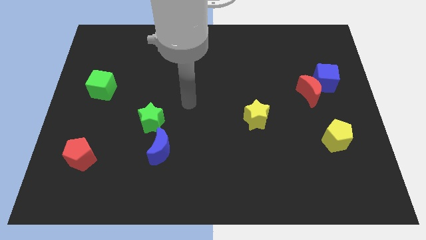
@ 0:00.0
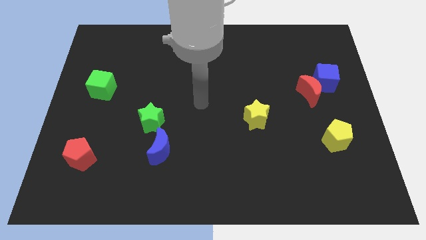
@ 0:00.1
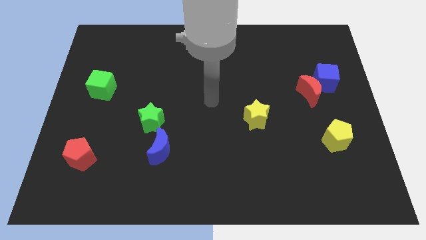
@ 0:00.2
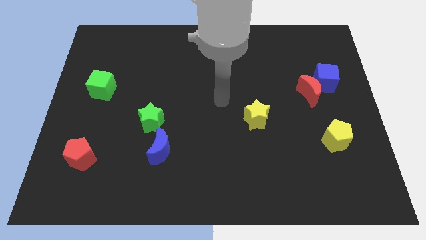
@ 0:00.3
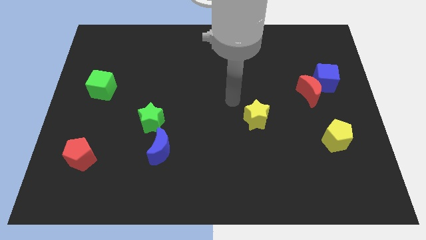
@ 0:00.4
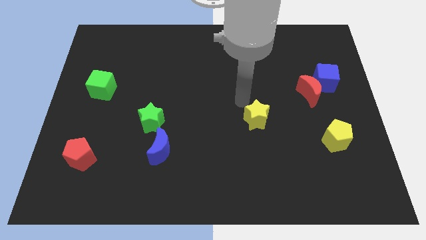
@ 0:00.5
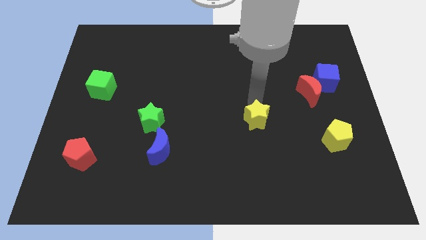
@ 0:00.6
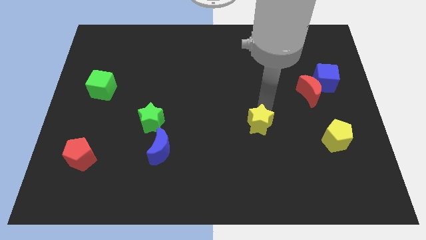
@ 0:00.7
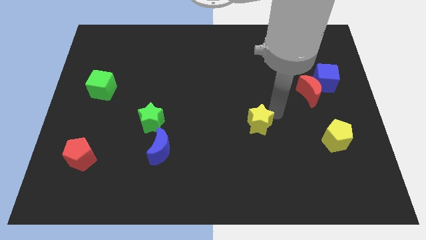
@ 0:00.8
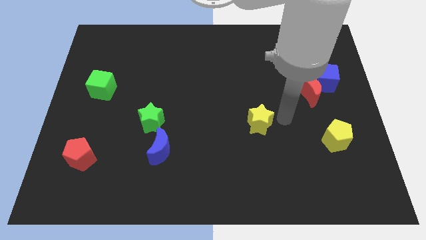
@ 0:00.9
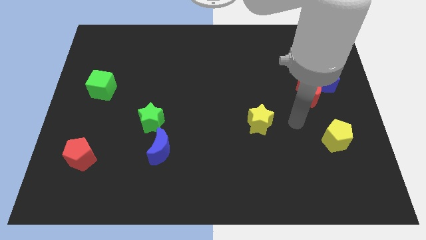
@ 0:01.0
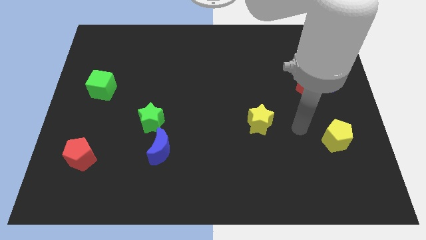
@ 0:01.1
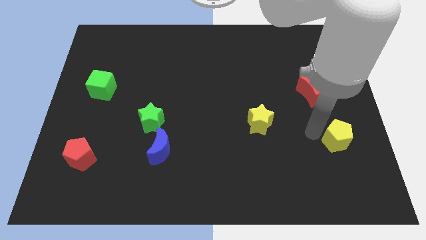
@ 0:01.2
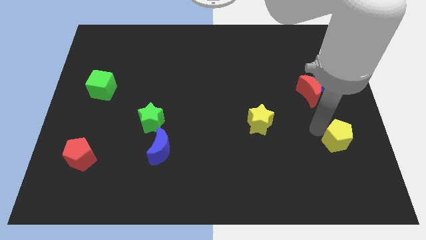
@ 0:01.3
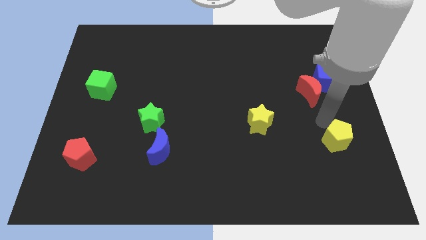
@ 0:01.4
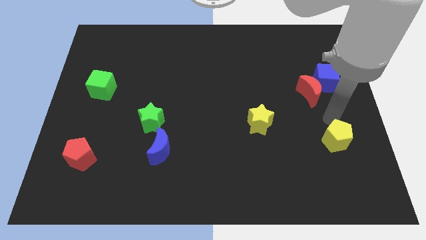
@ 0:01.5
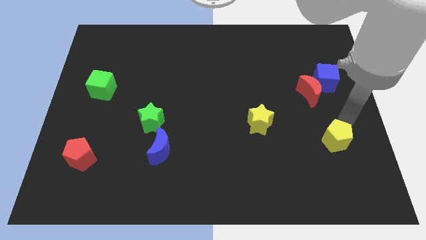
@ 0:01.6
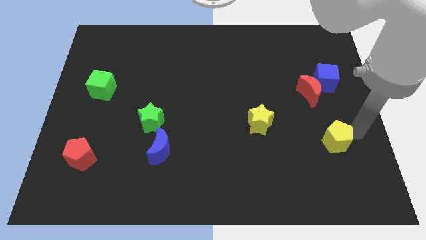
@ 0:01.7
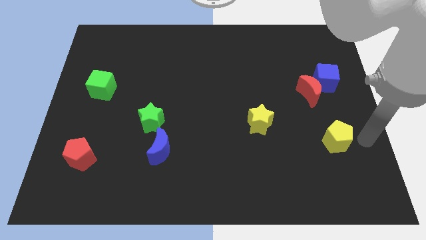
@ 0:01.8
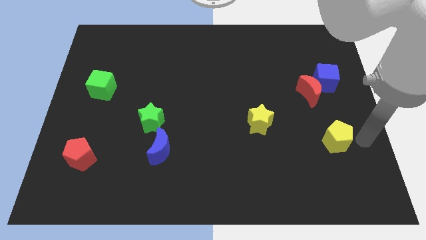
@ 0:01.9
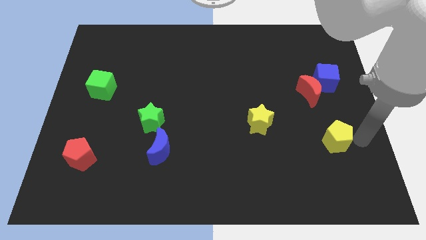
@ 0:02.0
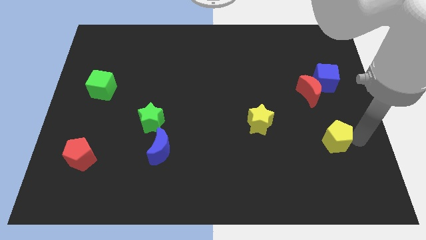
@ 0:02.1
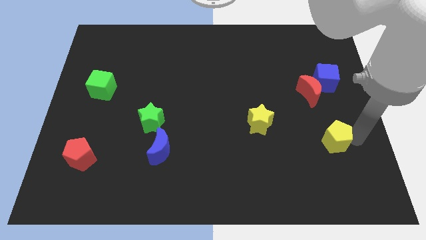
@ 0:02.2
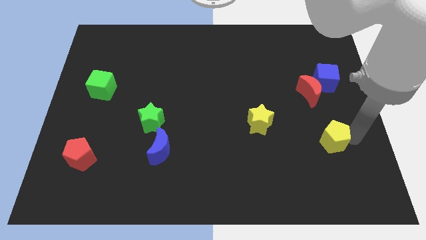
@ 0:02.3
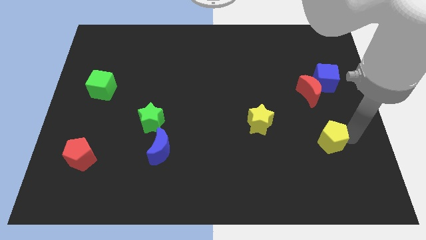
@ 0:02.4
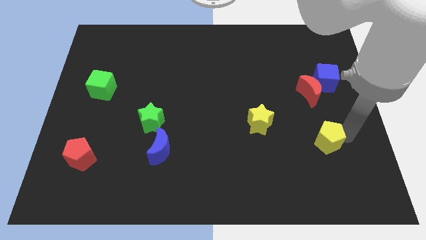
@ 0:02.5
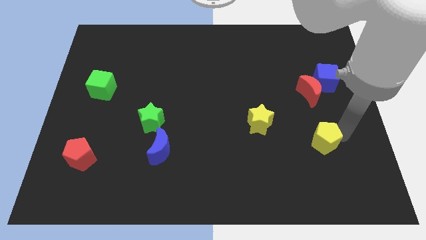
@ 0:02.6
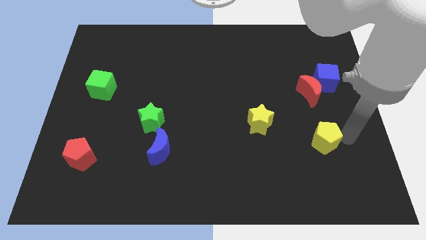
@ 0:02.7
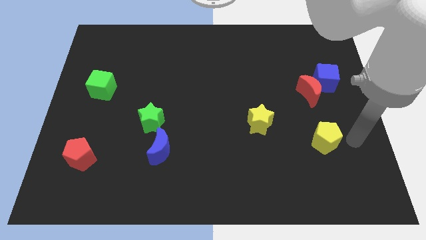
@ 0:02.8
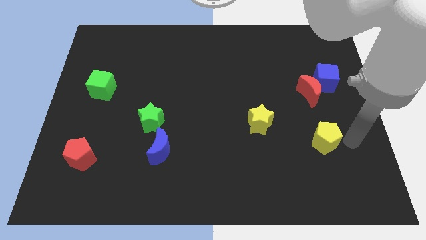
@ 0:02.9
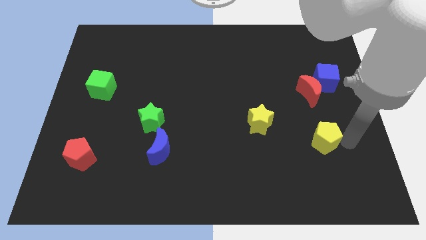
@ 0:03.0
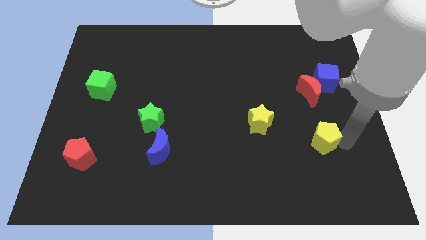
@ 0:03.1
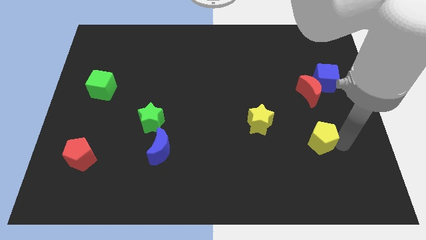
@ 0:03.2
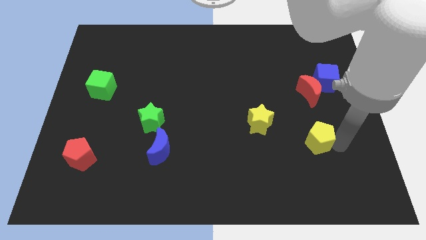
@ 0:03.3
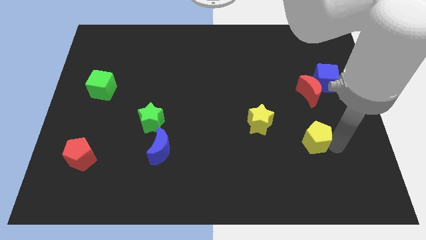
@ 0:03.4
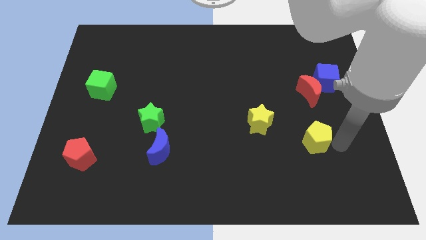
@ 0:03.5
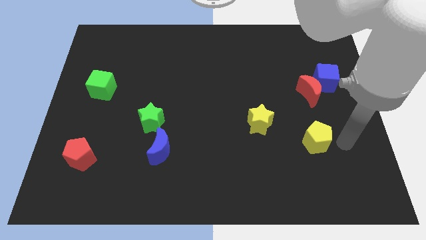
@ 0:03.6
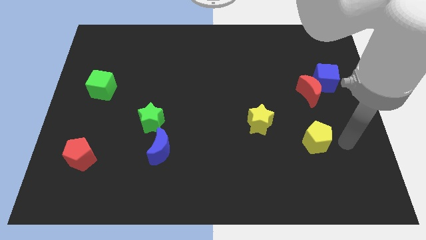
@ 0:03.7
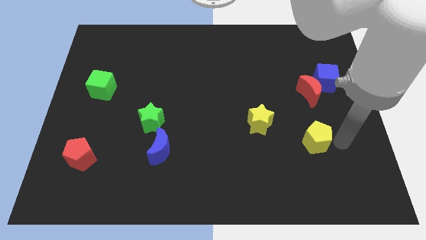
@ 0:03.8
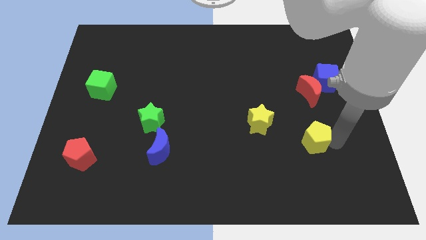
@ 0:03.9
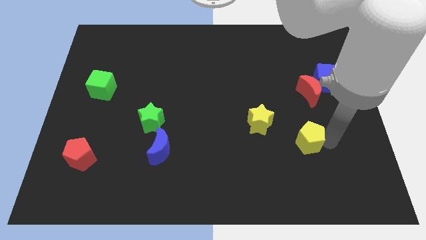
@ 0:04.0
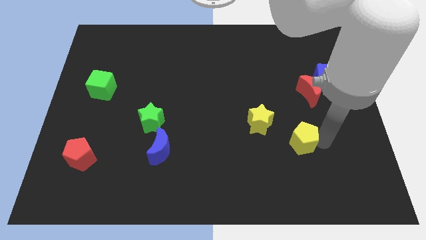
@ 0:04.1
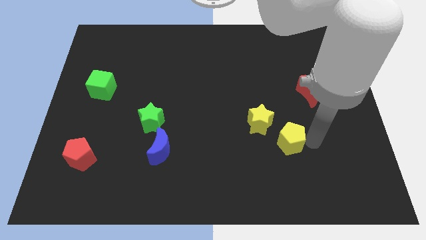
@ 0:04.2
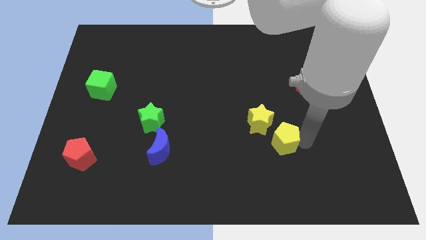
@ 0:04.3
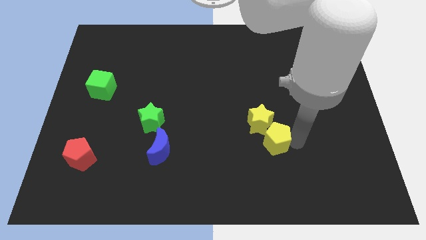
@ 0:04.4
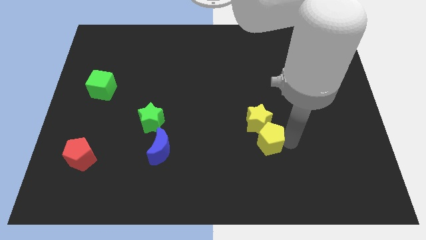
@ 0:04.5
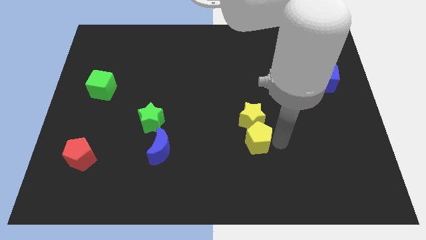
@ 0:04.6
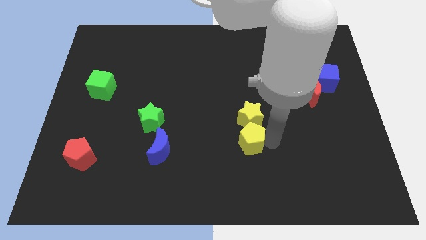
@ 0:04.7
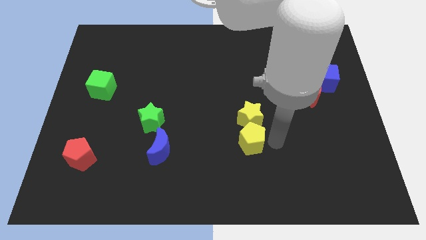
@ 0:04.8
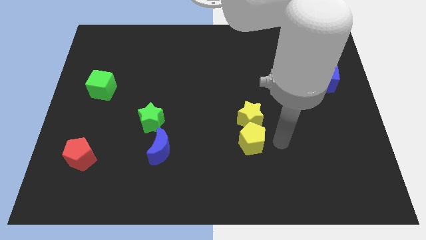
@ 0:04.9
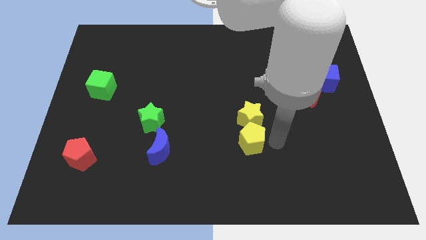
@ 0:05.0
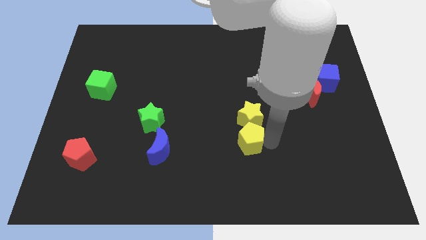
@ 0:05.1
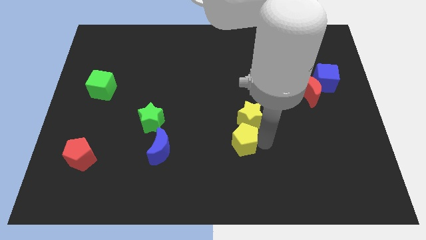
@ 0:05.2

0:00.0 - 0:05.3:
slide the yellow pentagon left

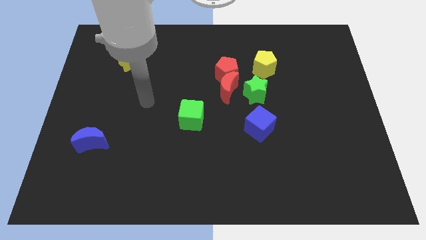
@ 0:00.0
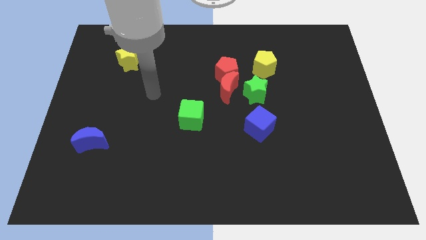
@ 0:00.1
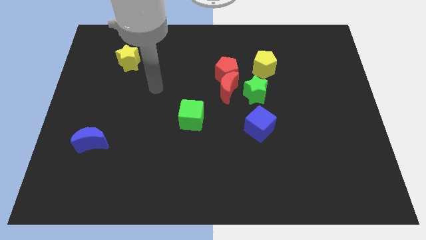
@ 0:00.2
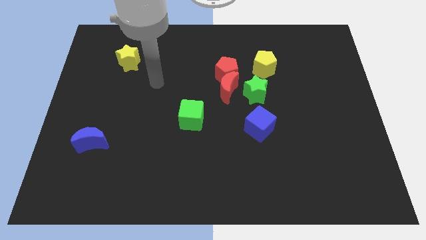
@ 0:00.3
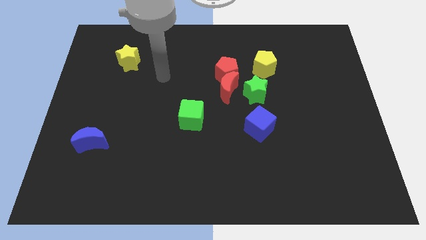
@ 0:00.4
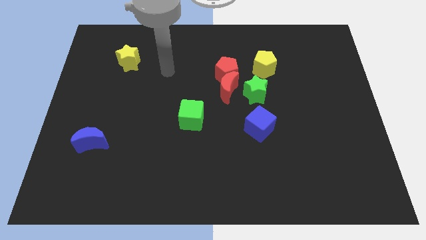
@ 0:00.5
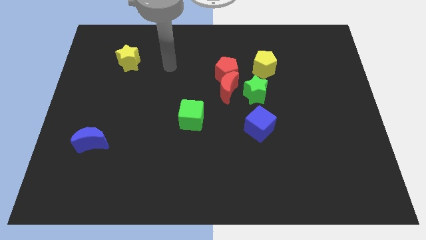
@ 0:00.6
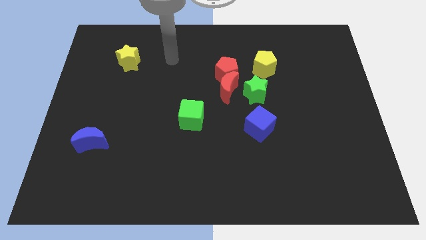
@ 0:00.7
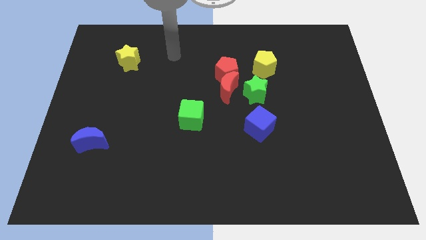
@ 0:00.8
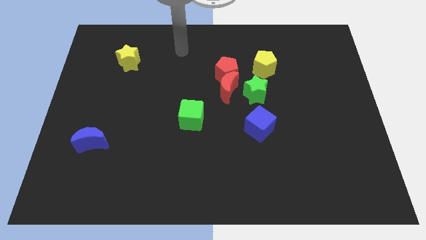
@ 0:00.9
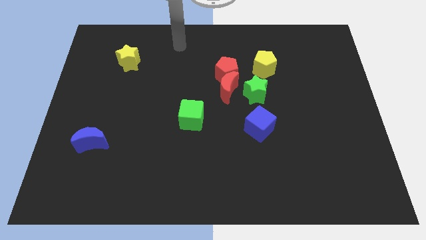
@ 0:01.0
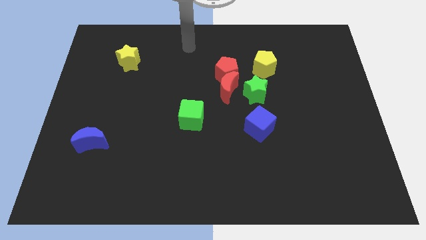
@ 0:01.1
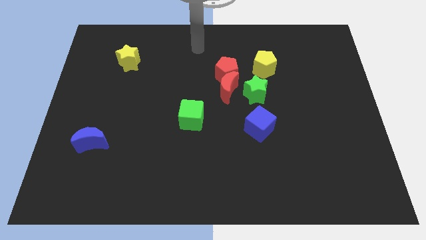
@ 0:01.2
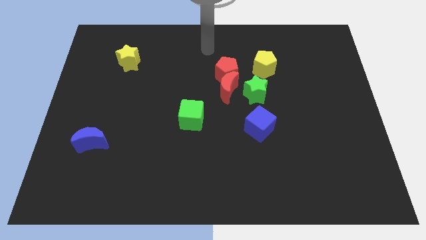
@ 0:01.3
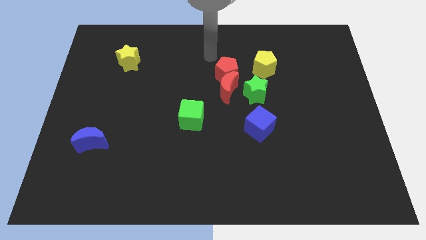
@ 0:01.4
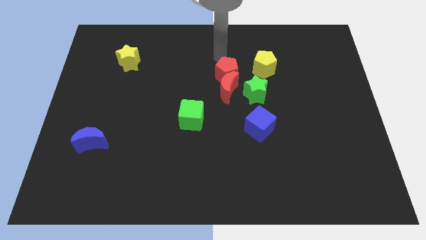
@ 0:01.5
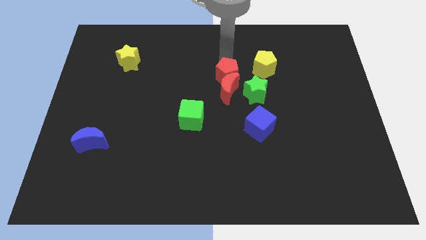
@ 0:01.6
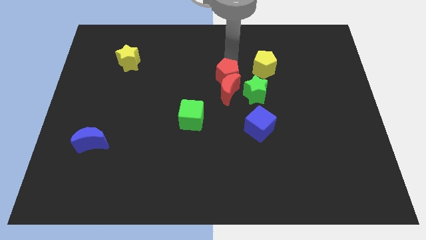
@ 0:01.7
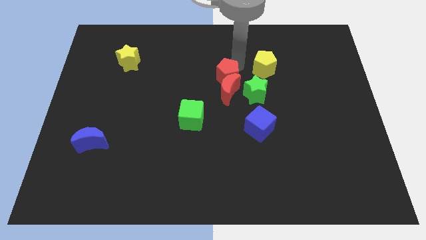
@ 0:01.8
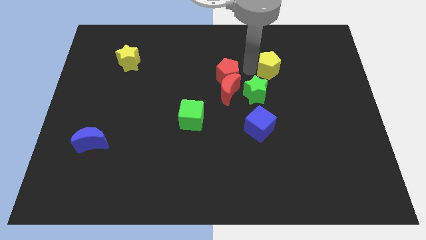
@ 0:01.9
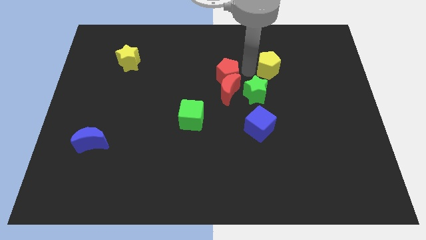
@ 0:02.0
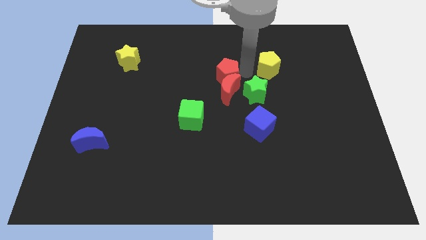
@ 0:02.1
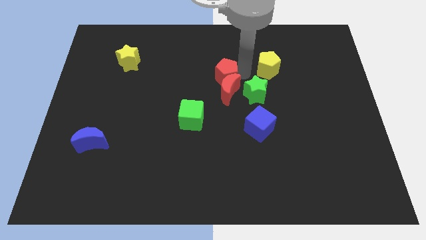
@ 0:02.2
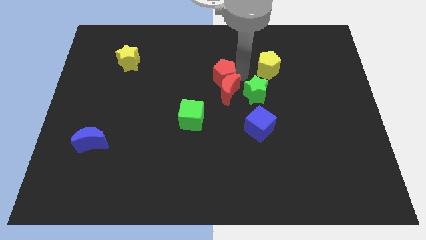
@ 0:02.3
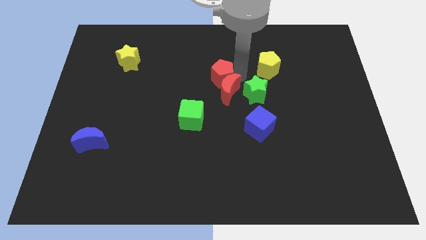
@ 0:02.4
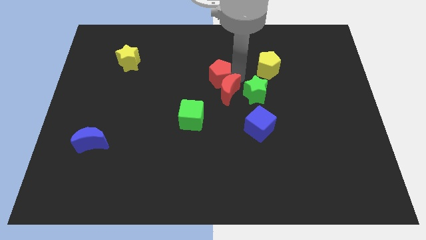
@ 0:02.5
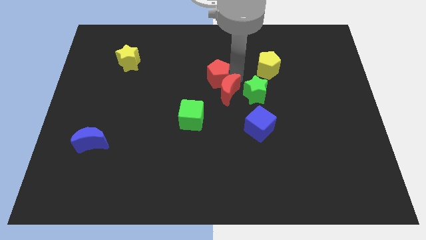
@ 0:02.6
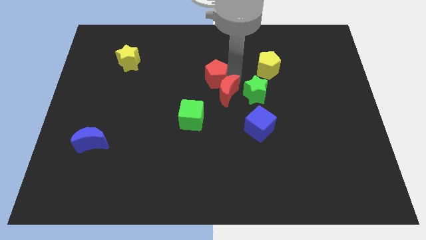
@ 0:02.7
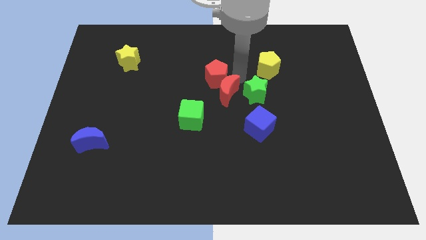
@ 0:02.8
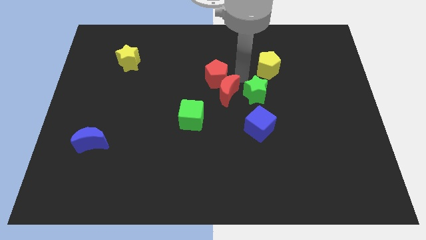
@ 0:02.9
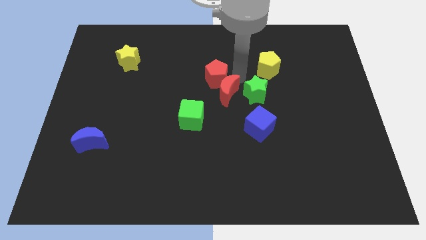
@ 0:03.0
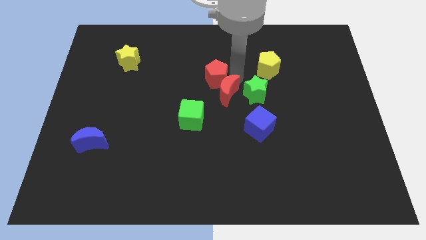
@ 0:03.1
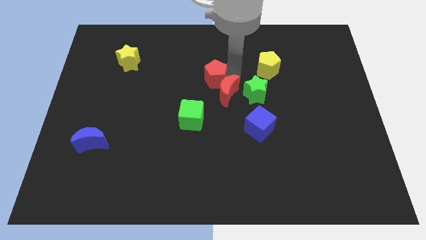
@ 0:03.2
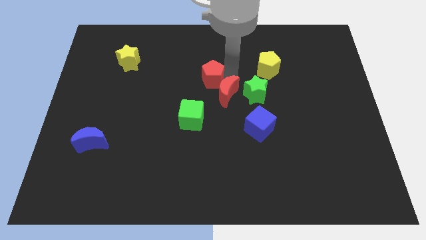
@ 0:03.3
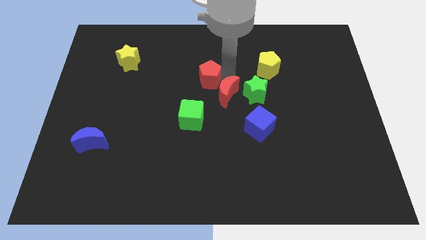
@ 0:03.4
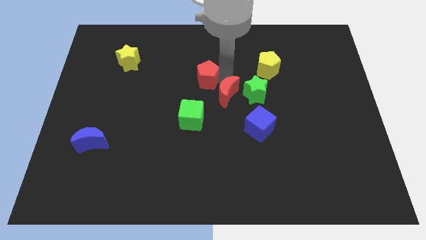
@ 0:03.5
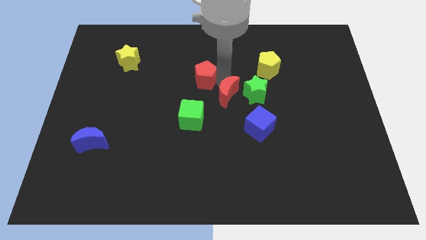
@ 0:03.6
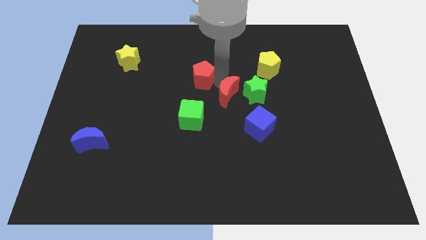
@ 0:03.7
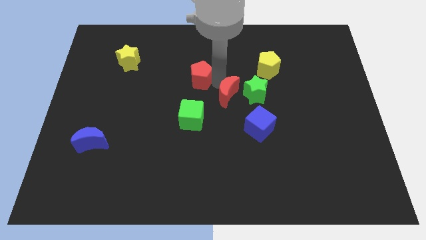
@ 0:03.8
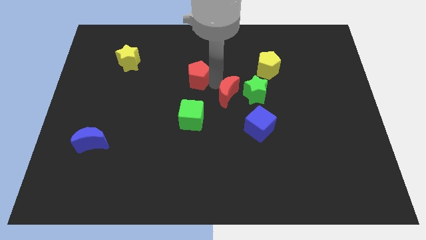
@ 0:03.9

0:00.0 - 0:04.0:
push the red pentagon a little bit to the left
